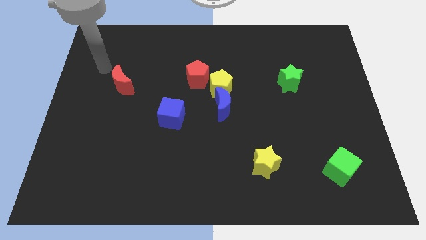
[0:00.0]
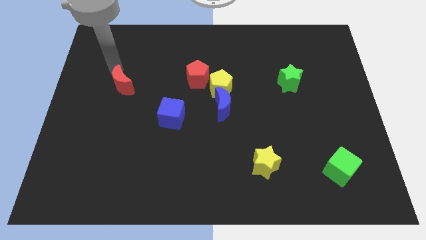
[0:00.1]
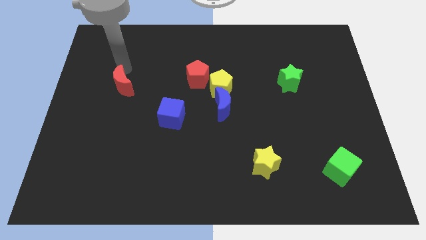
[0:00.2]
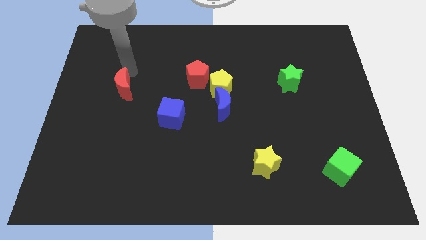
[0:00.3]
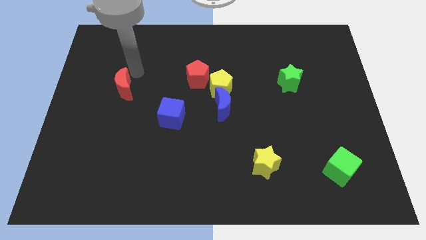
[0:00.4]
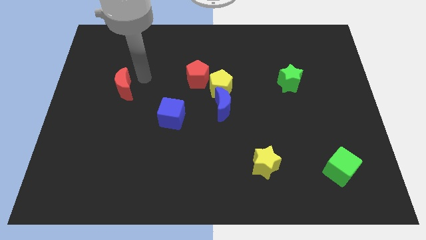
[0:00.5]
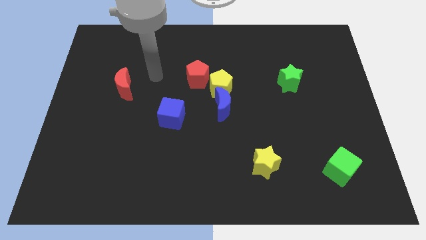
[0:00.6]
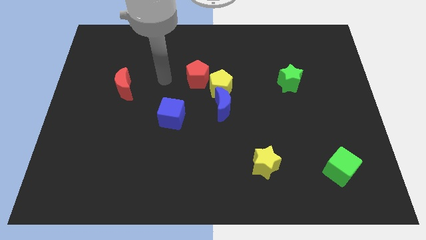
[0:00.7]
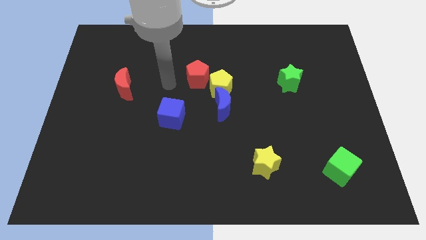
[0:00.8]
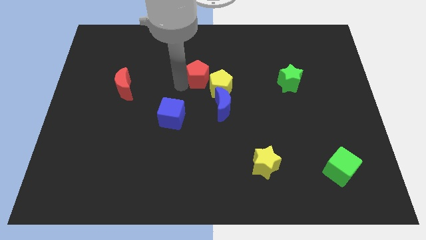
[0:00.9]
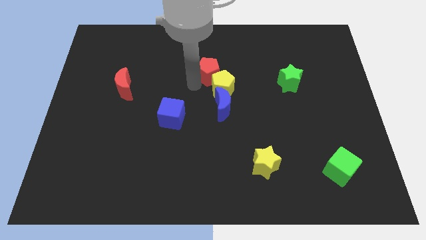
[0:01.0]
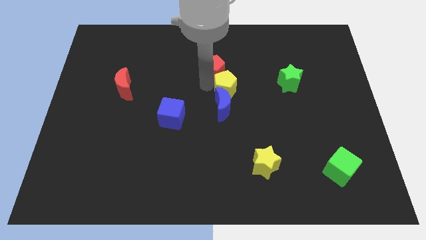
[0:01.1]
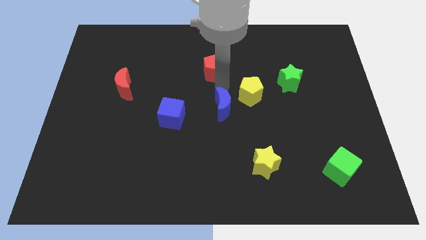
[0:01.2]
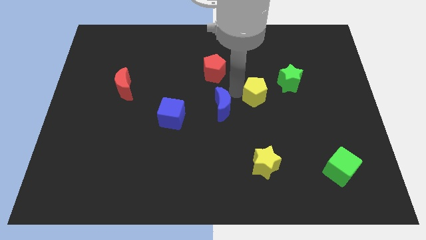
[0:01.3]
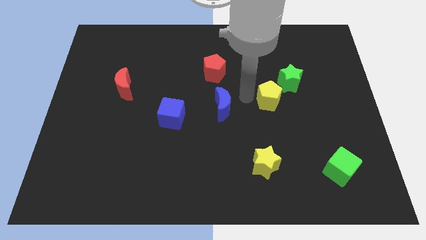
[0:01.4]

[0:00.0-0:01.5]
pull the blue moon apart from the yellow pentagon

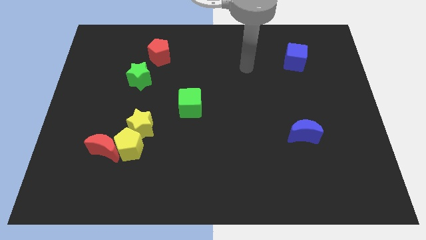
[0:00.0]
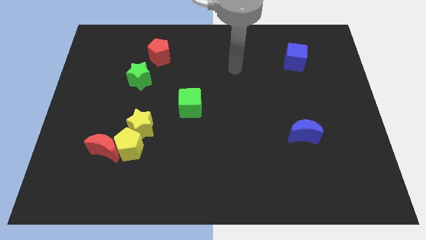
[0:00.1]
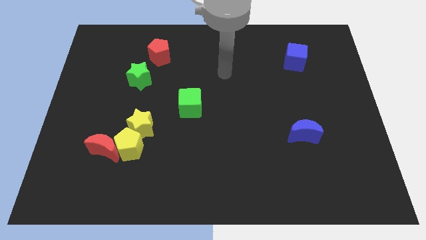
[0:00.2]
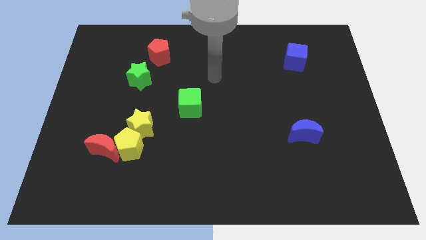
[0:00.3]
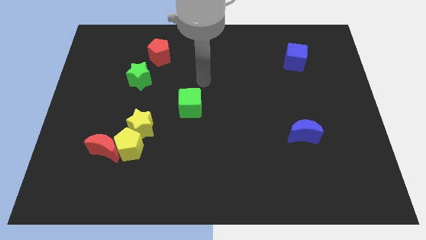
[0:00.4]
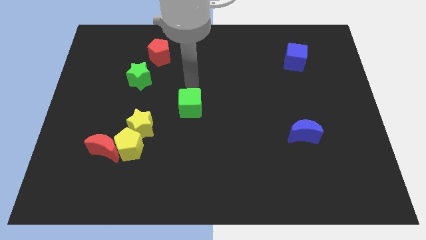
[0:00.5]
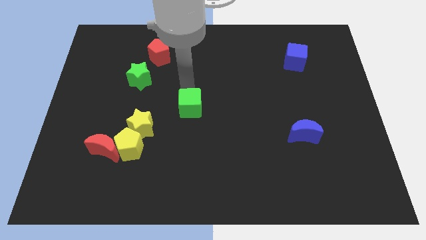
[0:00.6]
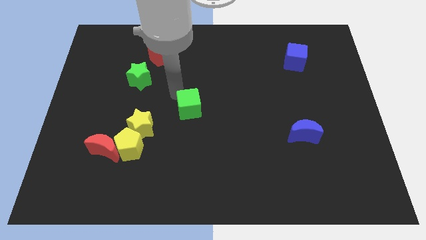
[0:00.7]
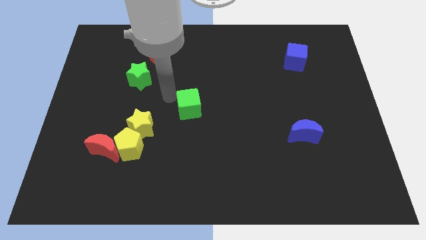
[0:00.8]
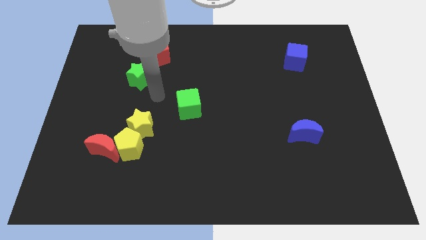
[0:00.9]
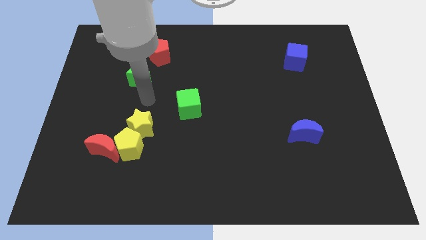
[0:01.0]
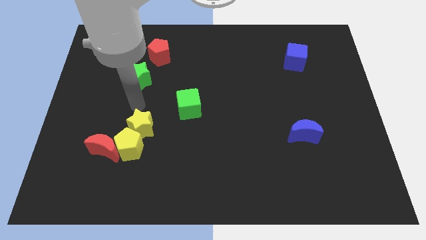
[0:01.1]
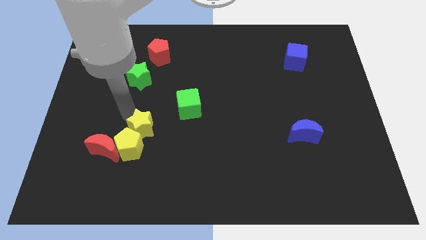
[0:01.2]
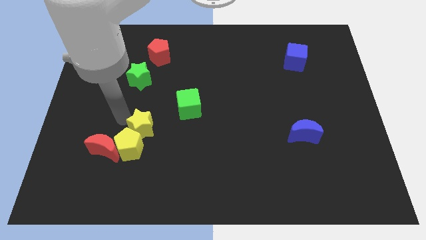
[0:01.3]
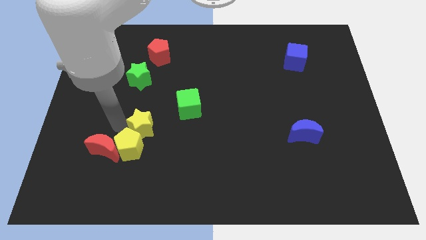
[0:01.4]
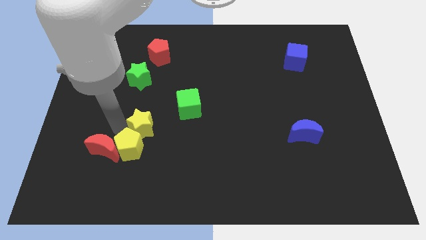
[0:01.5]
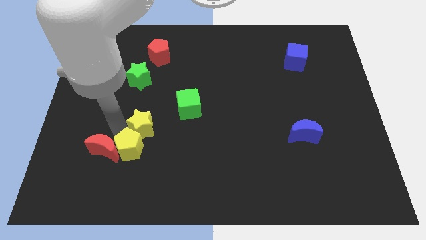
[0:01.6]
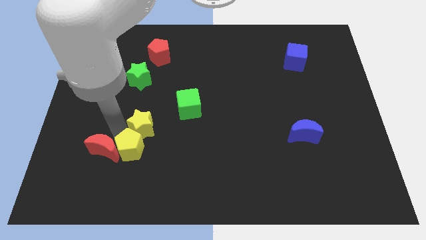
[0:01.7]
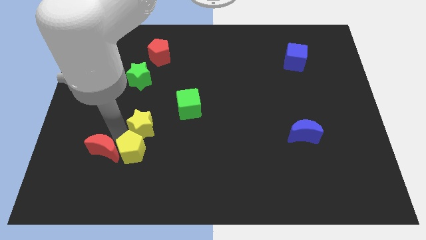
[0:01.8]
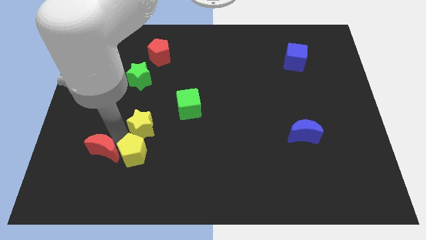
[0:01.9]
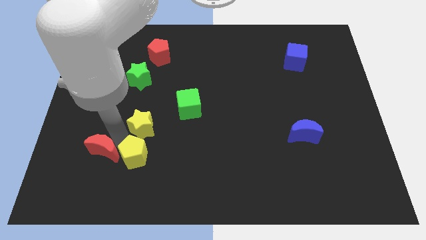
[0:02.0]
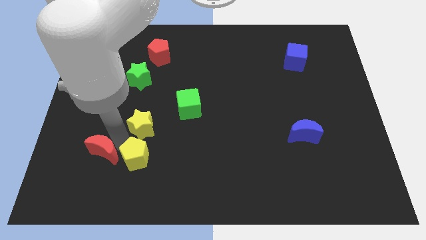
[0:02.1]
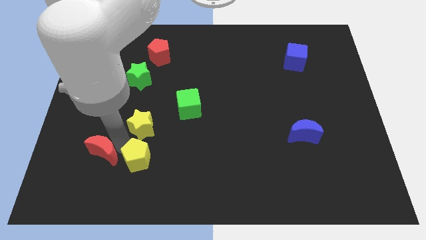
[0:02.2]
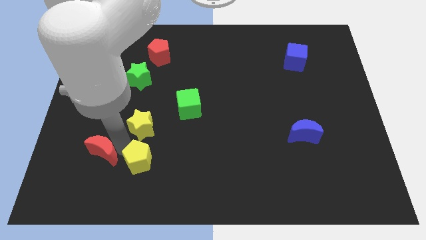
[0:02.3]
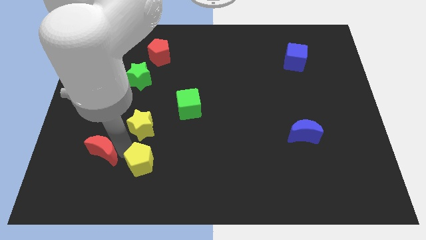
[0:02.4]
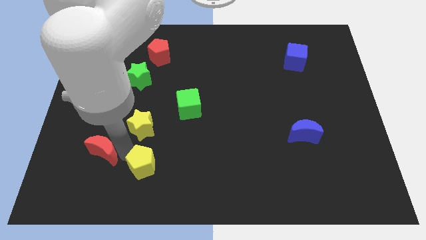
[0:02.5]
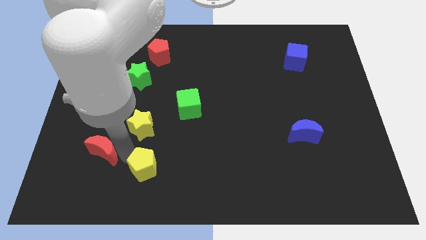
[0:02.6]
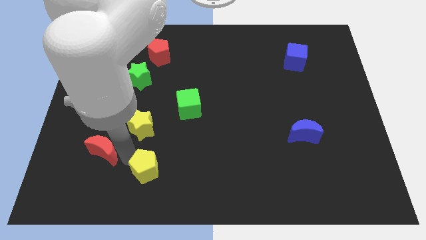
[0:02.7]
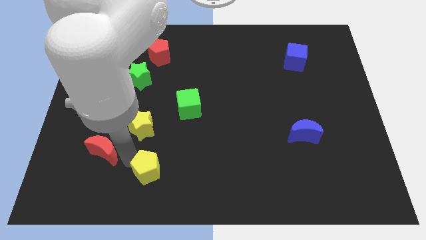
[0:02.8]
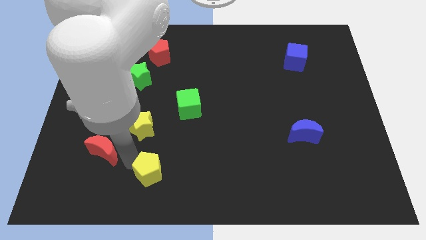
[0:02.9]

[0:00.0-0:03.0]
move the yellow pentagon away from the red moon and yellow star

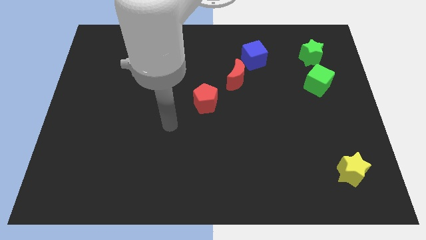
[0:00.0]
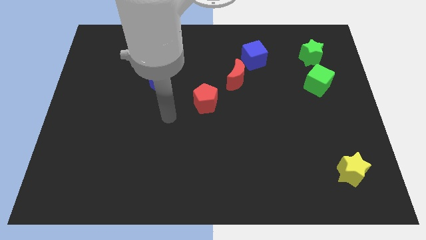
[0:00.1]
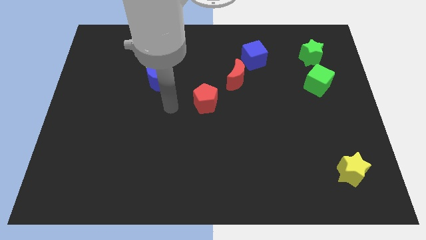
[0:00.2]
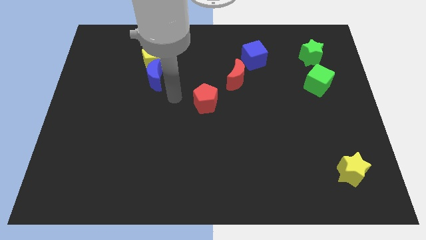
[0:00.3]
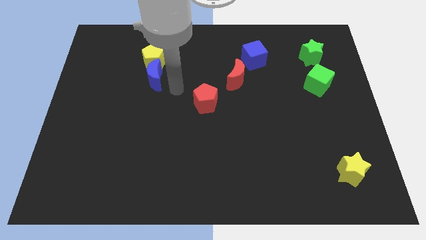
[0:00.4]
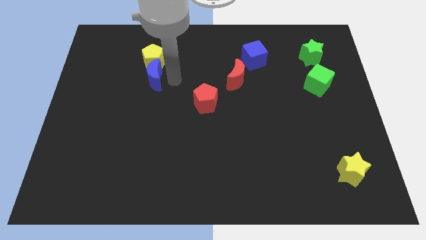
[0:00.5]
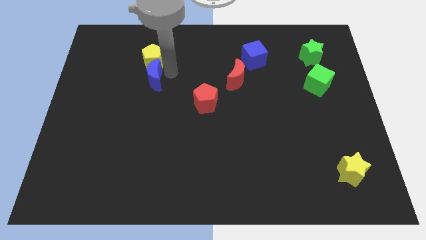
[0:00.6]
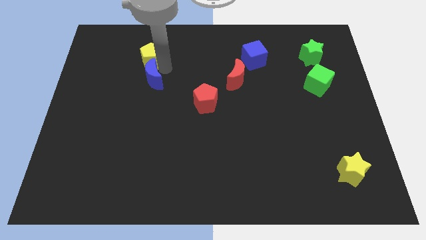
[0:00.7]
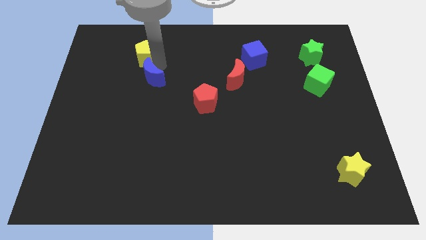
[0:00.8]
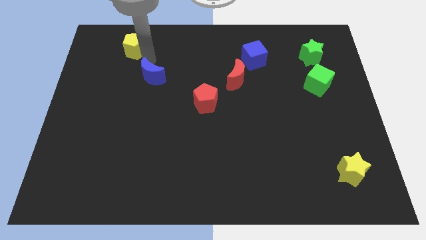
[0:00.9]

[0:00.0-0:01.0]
separate the blue moon from the yellow pentagon

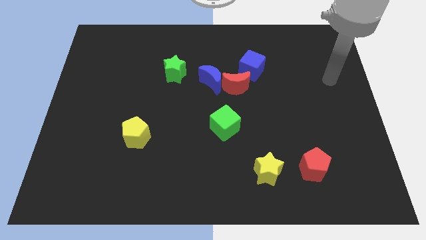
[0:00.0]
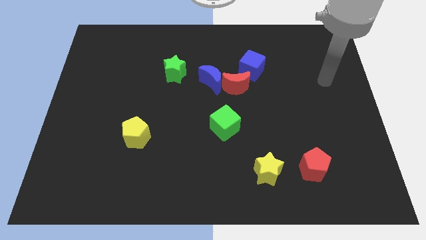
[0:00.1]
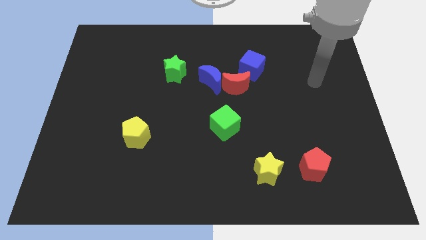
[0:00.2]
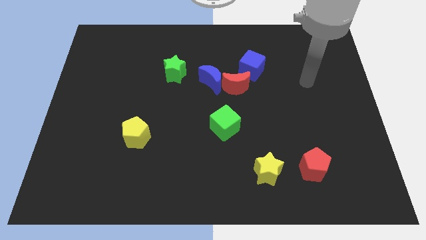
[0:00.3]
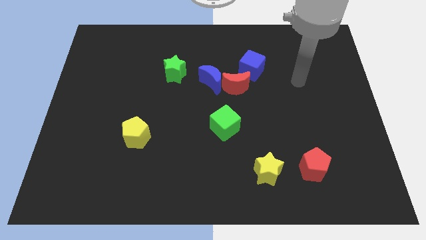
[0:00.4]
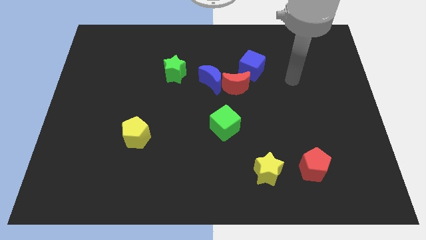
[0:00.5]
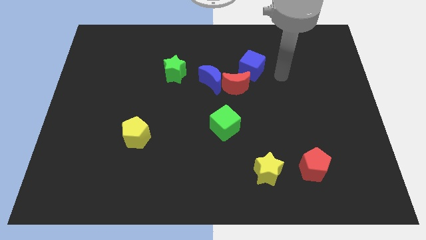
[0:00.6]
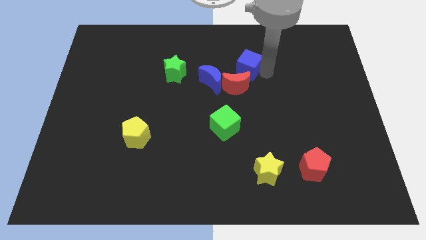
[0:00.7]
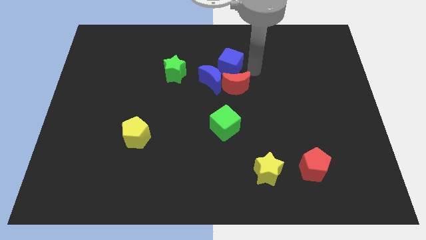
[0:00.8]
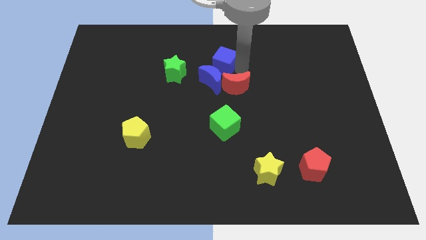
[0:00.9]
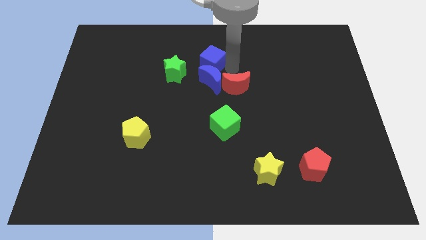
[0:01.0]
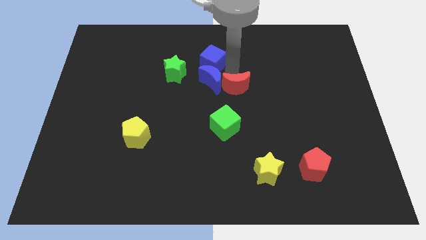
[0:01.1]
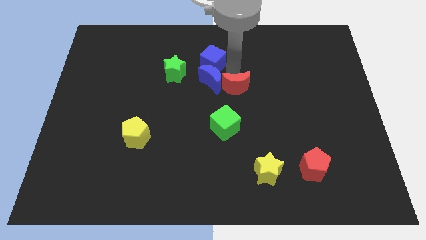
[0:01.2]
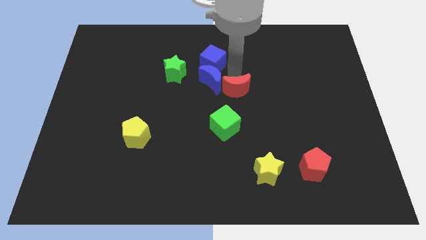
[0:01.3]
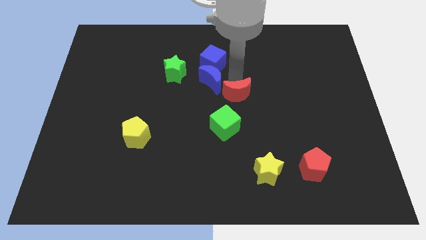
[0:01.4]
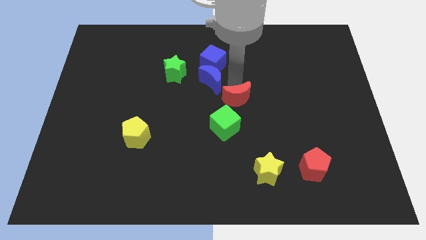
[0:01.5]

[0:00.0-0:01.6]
separate the red moon from the blue moon and blue cube

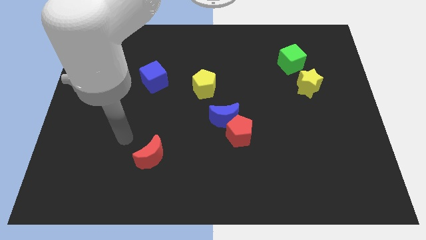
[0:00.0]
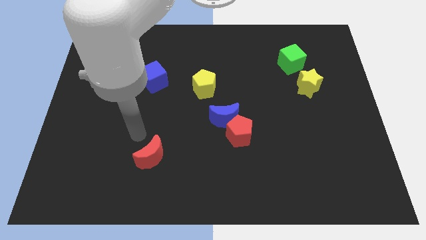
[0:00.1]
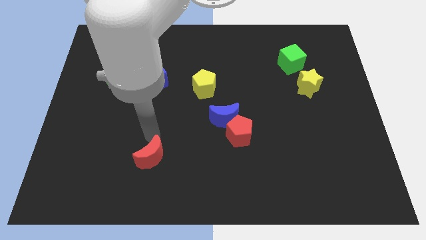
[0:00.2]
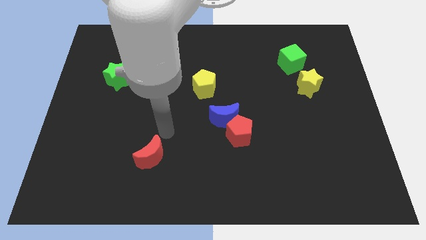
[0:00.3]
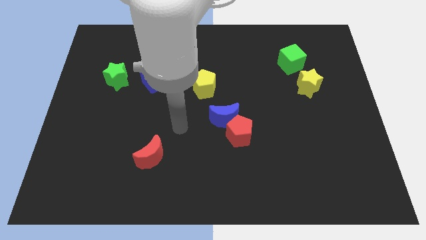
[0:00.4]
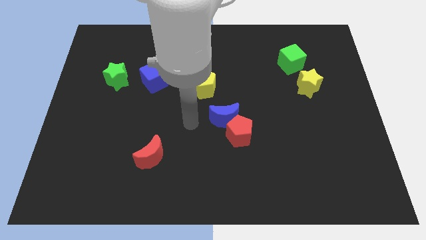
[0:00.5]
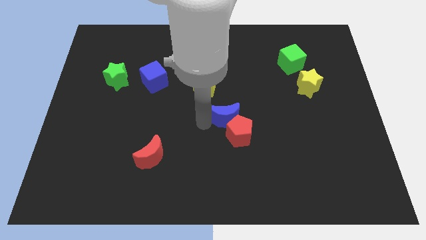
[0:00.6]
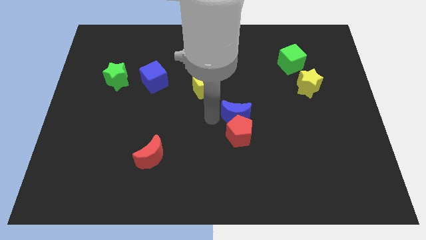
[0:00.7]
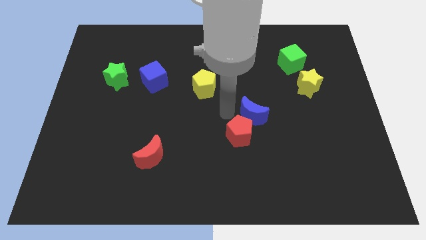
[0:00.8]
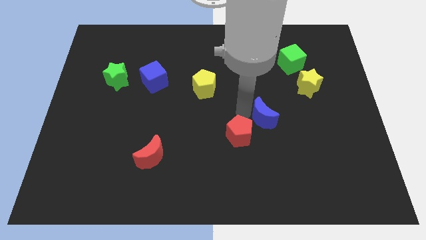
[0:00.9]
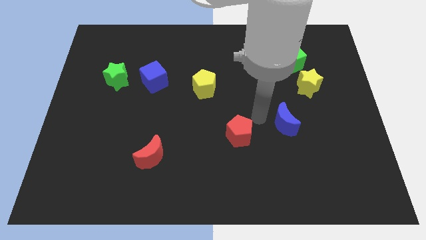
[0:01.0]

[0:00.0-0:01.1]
move the red pentagon away from the blue moon

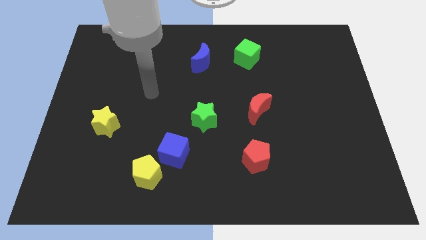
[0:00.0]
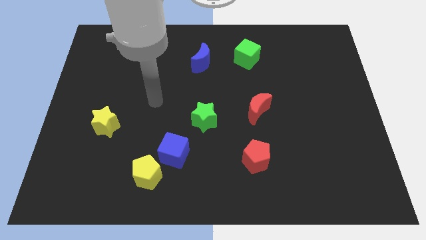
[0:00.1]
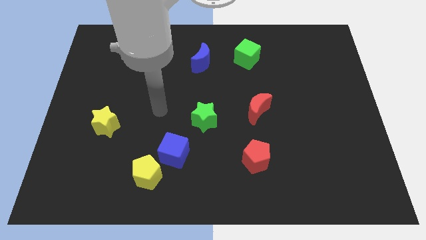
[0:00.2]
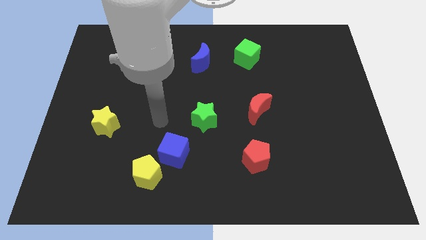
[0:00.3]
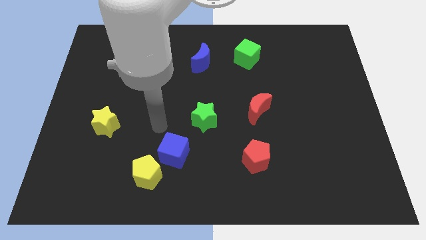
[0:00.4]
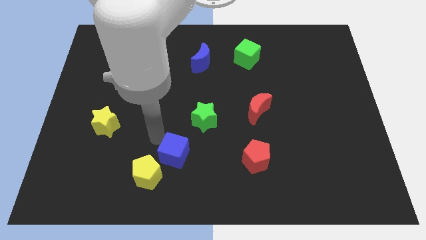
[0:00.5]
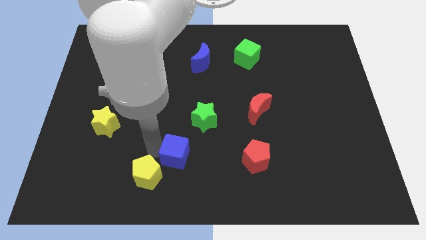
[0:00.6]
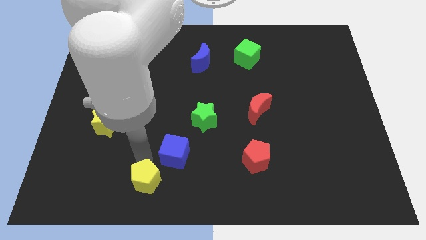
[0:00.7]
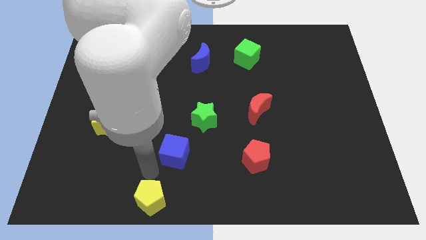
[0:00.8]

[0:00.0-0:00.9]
pull the blue cube apart from the yellow pentagon

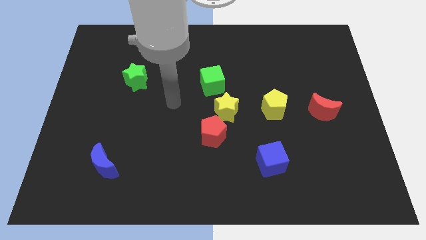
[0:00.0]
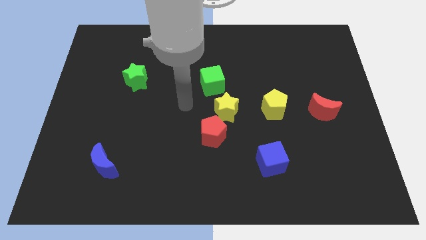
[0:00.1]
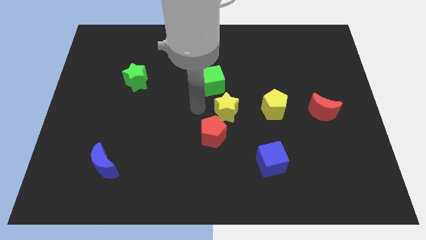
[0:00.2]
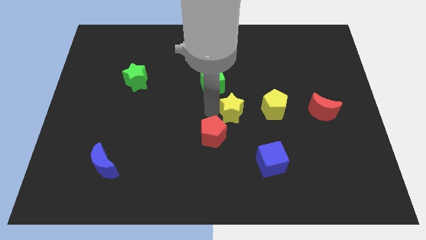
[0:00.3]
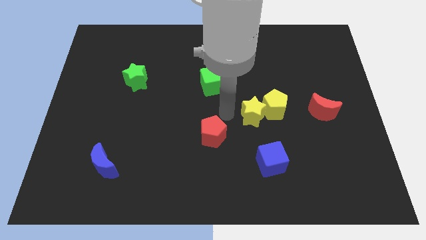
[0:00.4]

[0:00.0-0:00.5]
separate the red pentagon from the yellow star
